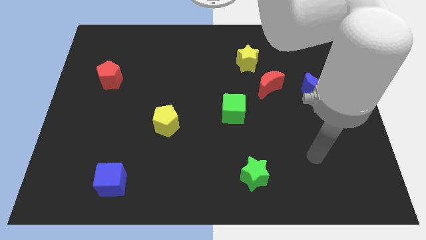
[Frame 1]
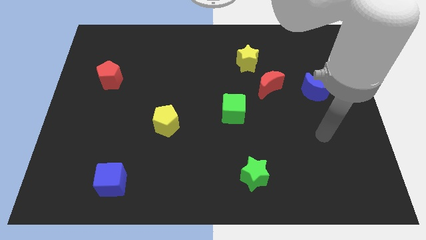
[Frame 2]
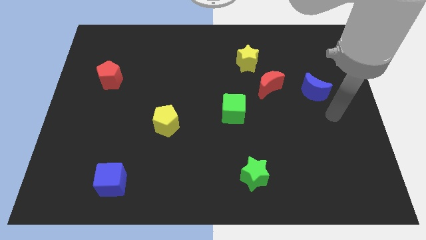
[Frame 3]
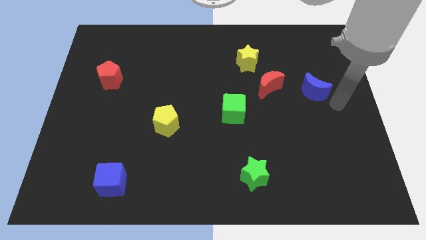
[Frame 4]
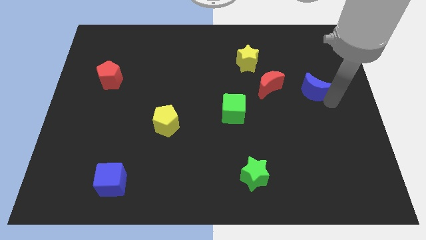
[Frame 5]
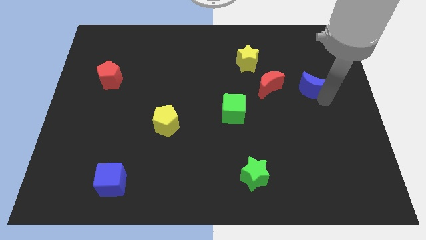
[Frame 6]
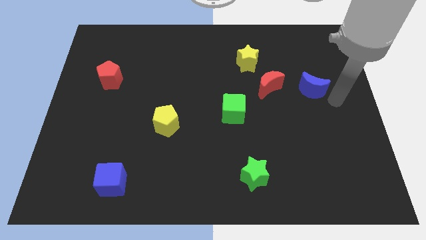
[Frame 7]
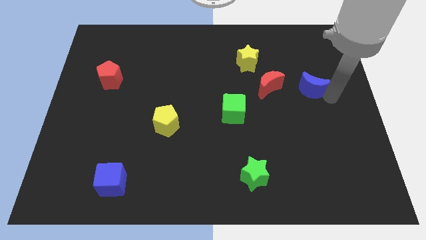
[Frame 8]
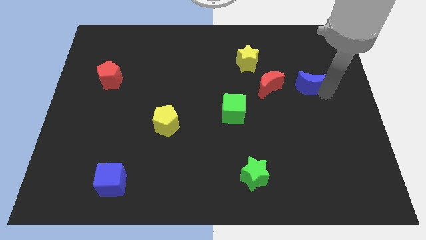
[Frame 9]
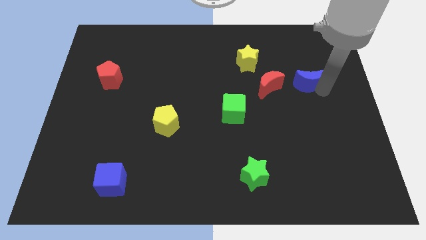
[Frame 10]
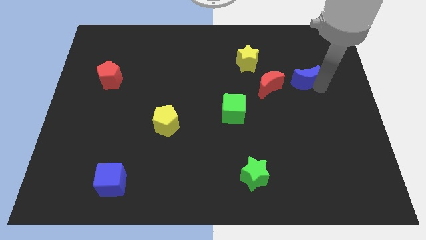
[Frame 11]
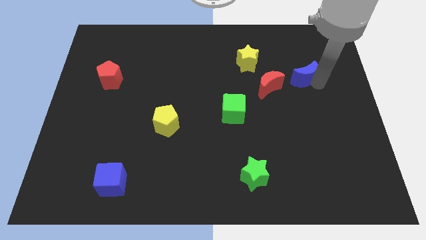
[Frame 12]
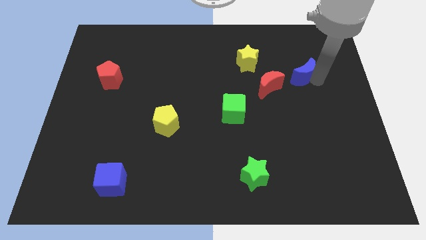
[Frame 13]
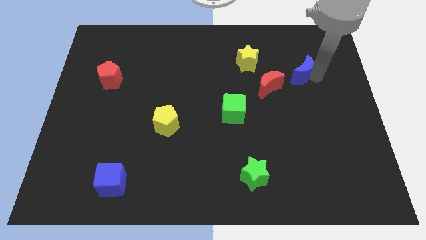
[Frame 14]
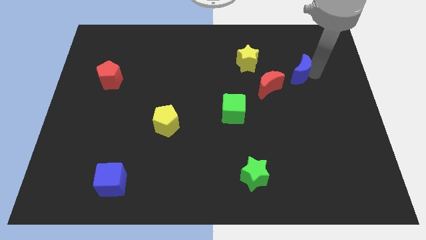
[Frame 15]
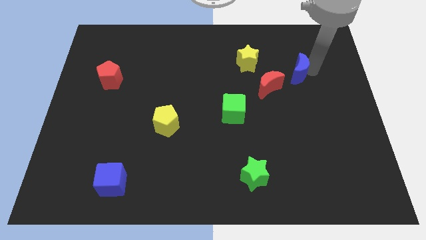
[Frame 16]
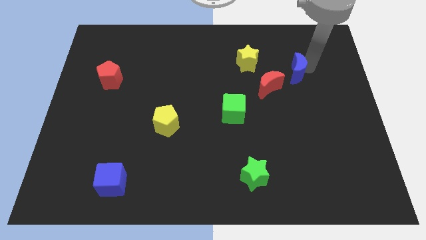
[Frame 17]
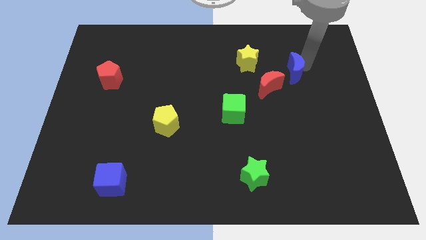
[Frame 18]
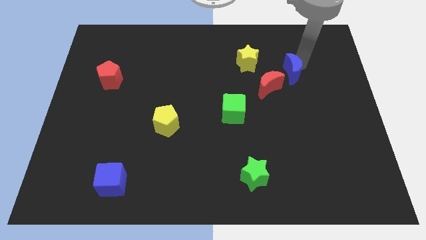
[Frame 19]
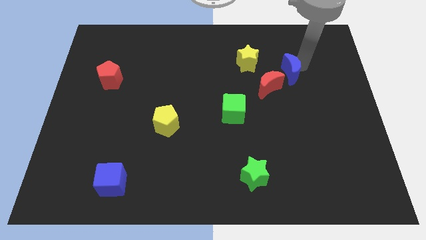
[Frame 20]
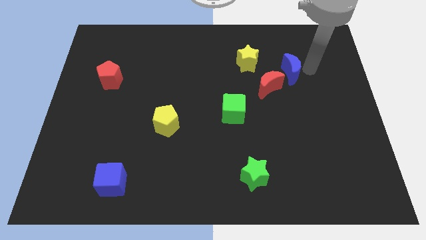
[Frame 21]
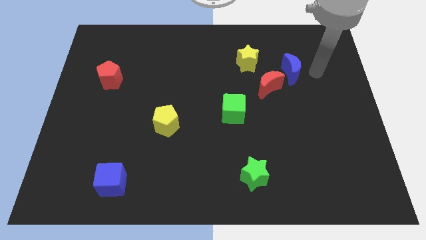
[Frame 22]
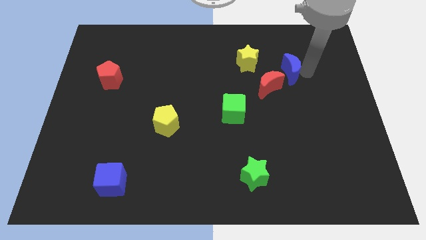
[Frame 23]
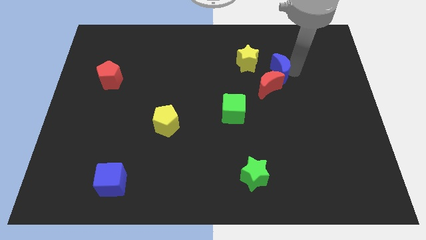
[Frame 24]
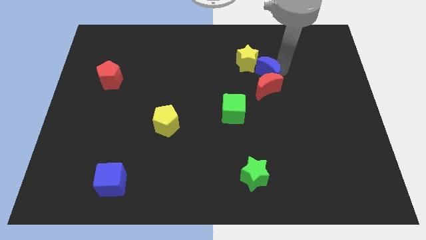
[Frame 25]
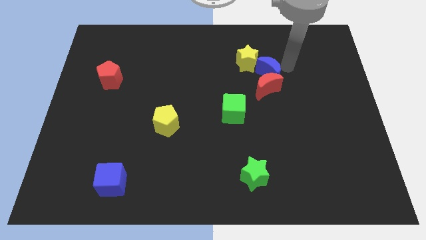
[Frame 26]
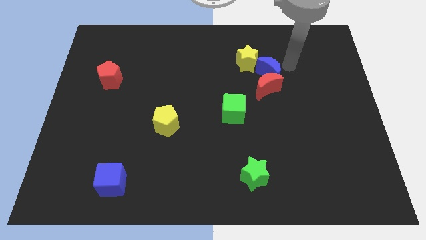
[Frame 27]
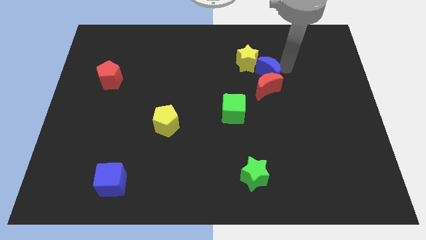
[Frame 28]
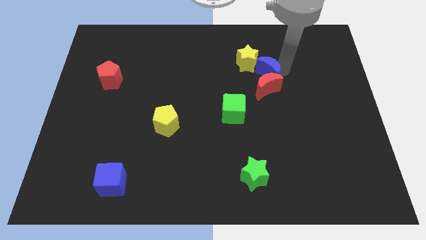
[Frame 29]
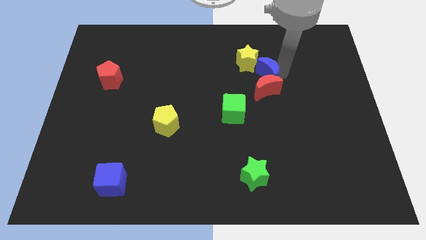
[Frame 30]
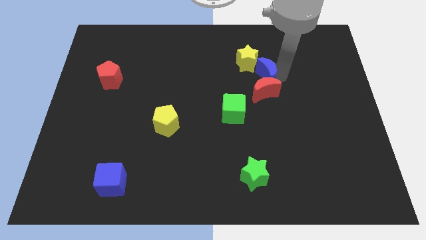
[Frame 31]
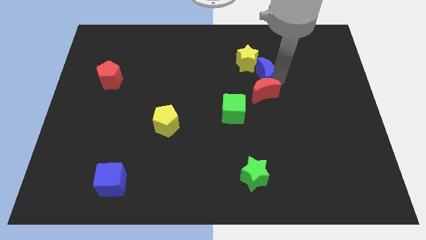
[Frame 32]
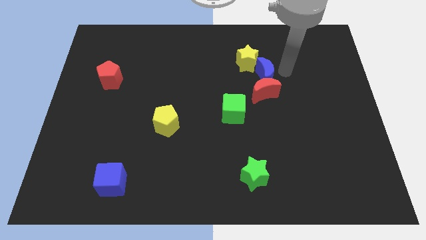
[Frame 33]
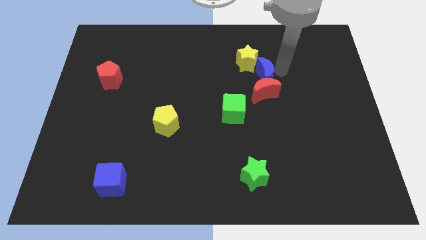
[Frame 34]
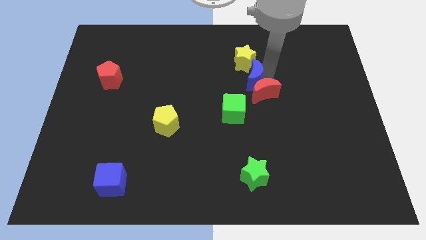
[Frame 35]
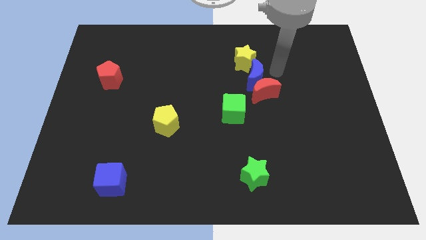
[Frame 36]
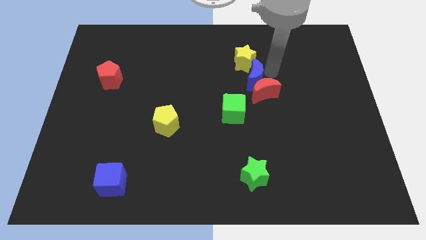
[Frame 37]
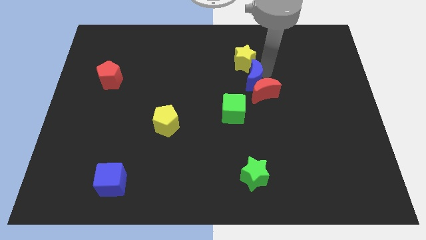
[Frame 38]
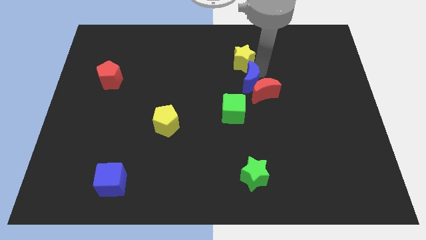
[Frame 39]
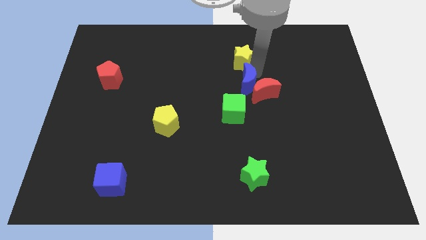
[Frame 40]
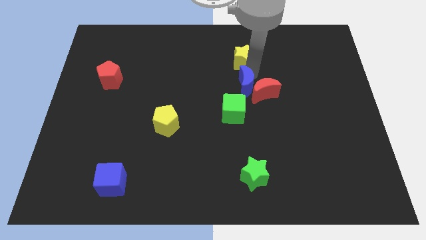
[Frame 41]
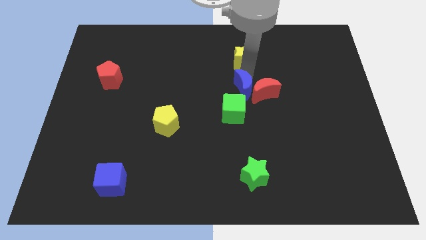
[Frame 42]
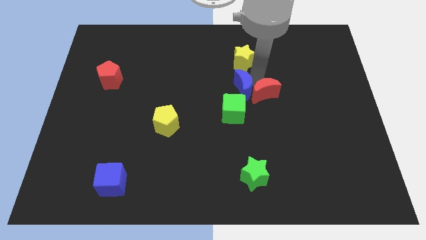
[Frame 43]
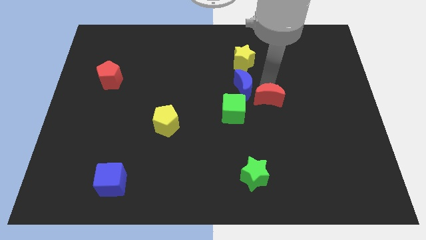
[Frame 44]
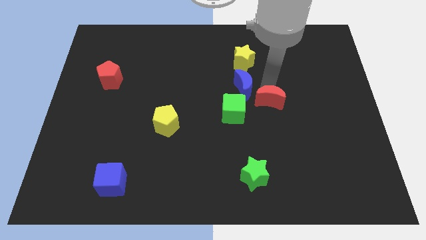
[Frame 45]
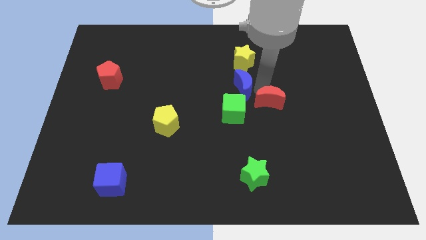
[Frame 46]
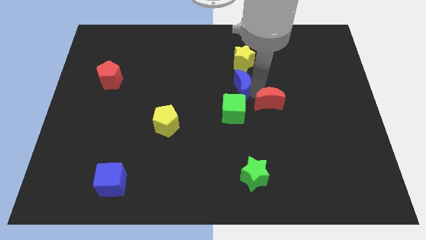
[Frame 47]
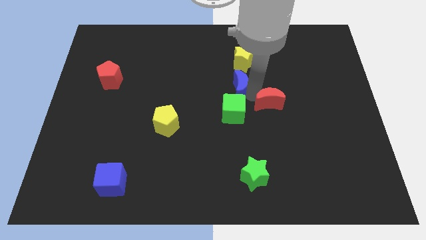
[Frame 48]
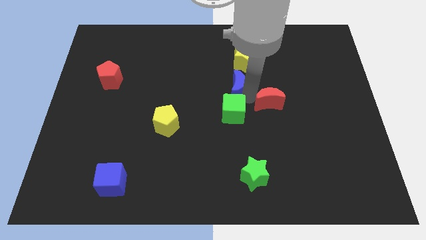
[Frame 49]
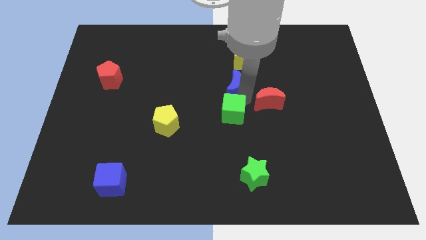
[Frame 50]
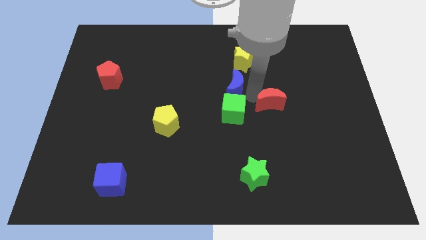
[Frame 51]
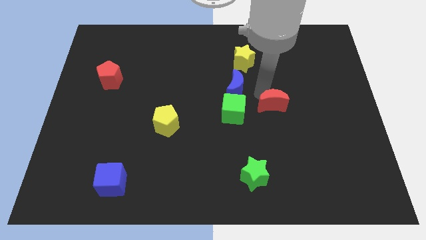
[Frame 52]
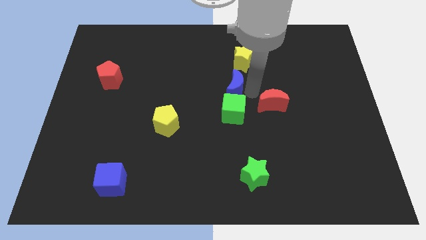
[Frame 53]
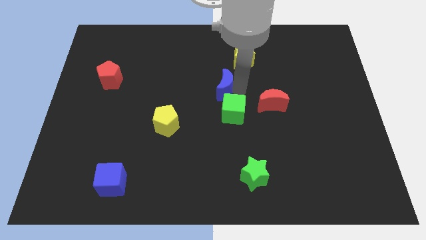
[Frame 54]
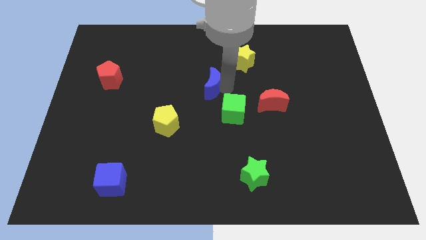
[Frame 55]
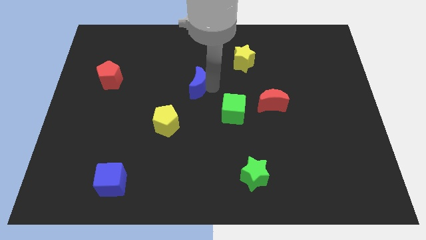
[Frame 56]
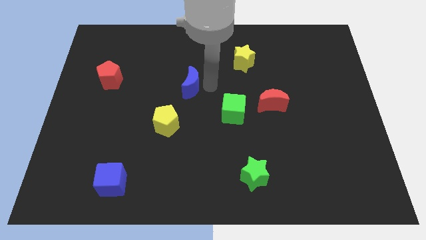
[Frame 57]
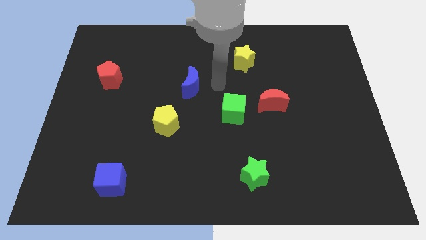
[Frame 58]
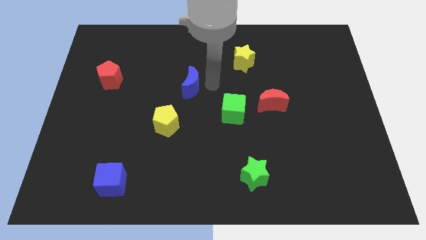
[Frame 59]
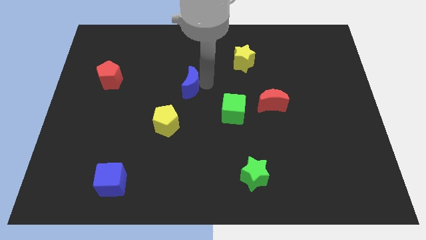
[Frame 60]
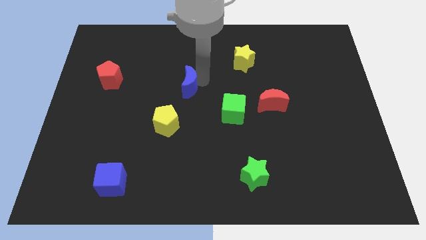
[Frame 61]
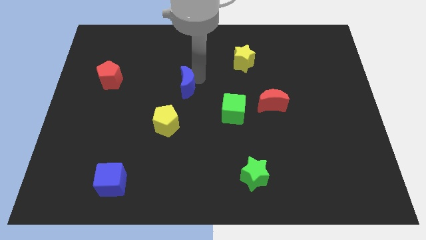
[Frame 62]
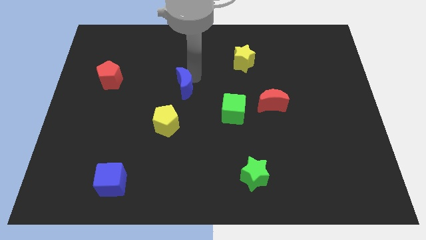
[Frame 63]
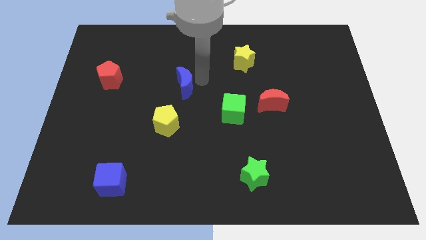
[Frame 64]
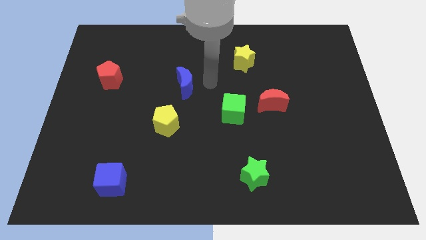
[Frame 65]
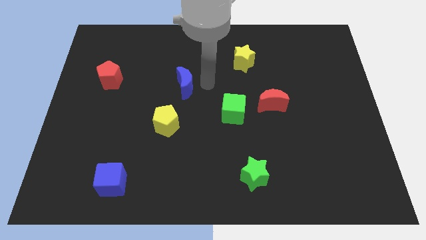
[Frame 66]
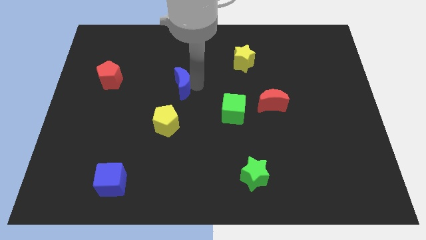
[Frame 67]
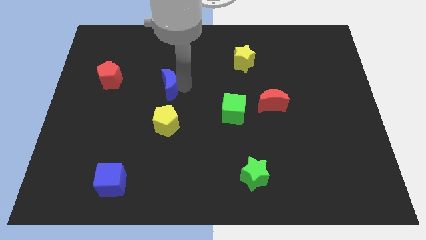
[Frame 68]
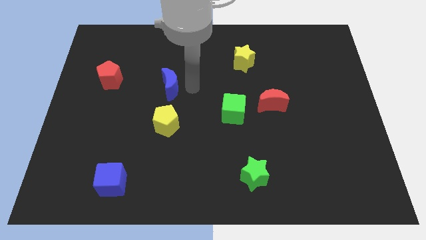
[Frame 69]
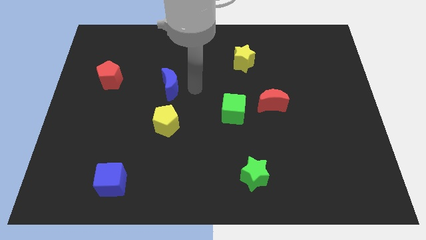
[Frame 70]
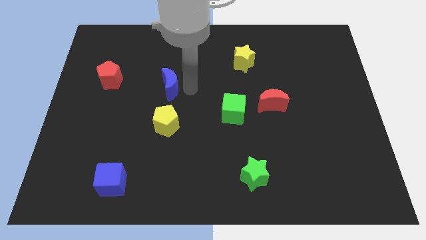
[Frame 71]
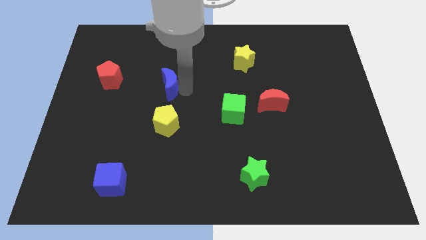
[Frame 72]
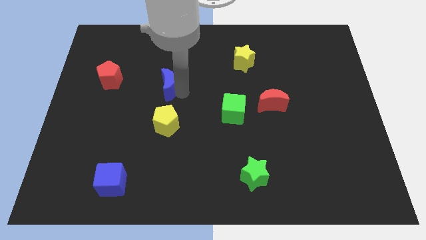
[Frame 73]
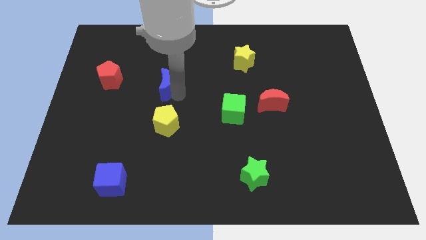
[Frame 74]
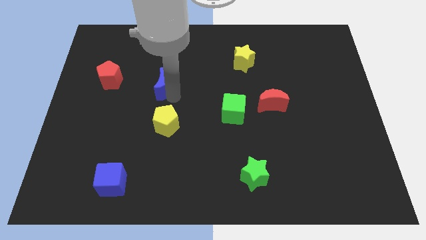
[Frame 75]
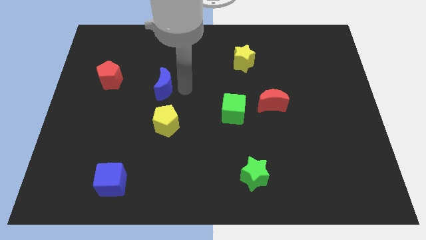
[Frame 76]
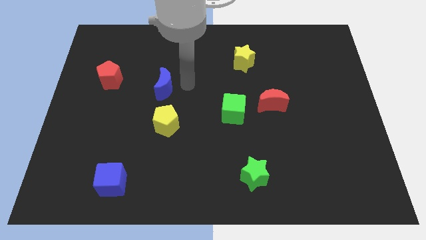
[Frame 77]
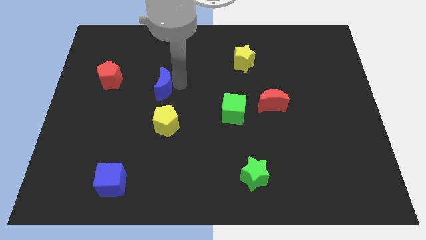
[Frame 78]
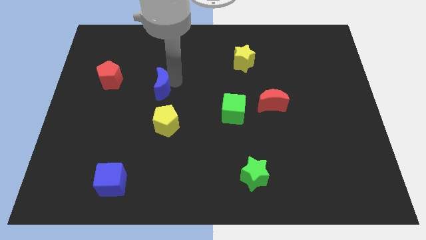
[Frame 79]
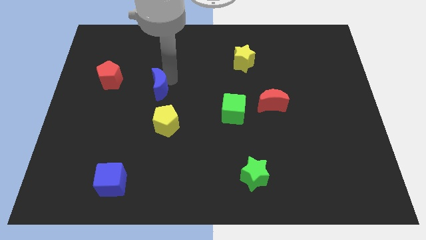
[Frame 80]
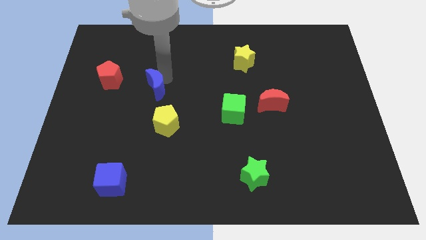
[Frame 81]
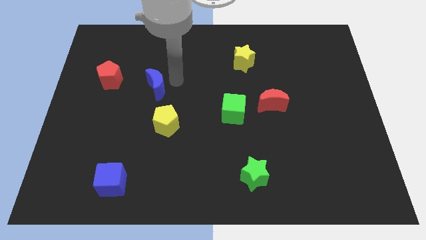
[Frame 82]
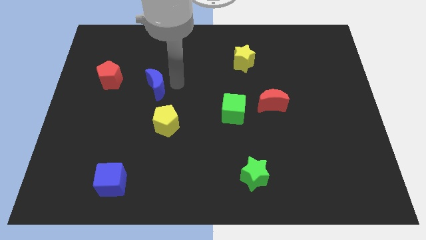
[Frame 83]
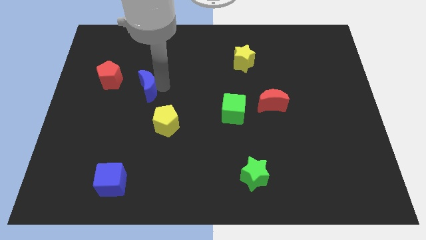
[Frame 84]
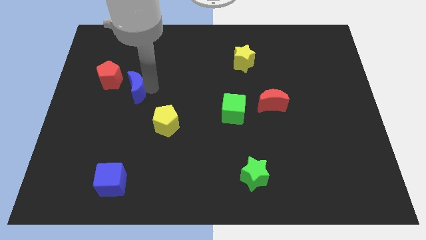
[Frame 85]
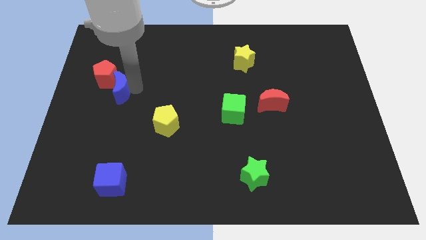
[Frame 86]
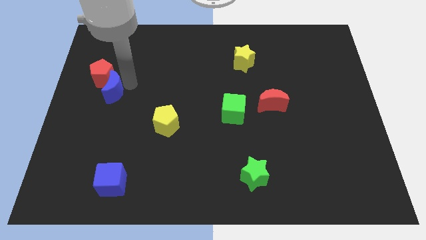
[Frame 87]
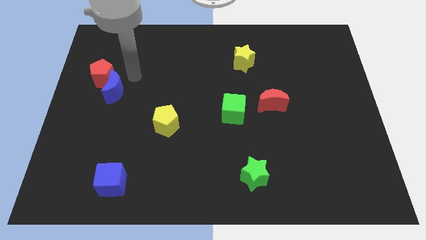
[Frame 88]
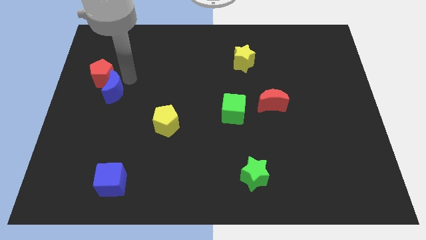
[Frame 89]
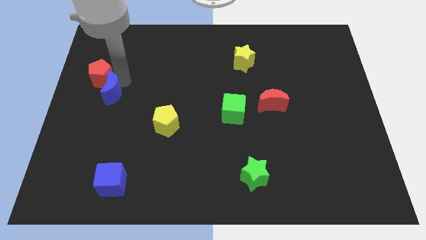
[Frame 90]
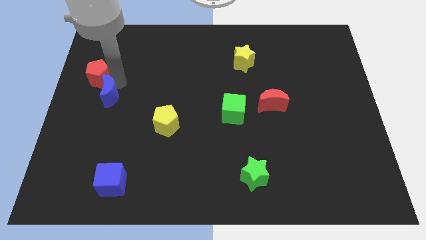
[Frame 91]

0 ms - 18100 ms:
move the blue moon to the center left
